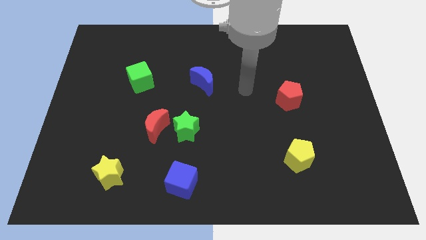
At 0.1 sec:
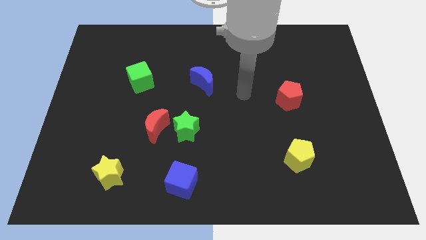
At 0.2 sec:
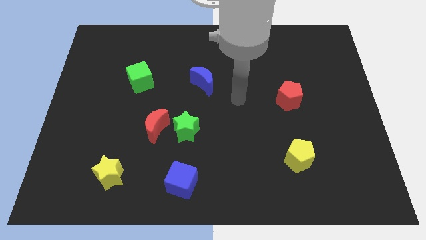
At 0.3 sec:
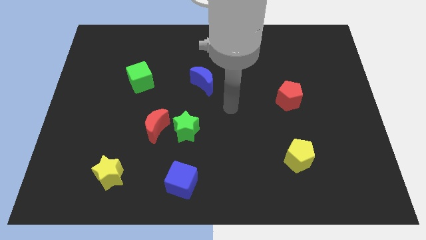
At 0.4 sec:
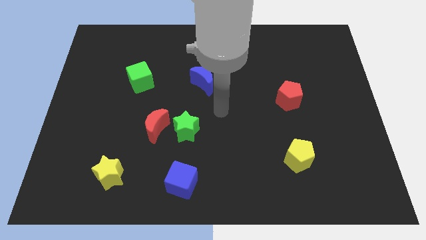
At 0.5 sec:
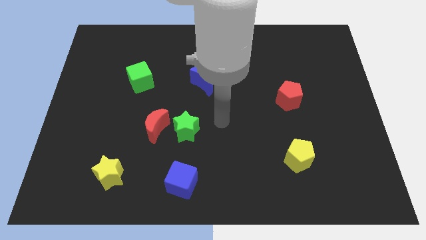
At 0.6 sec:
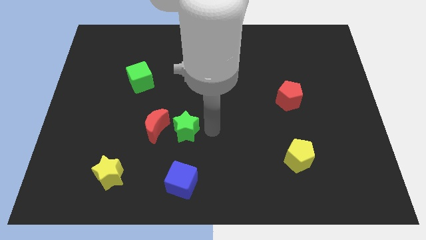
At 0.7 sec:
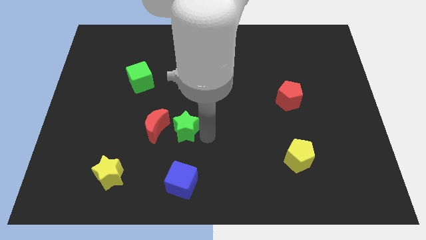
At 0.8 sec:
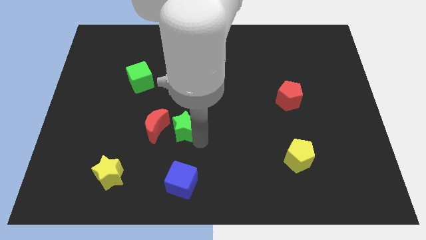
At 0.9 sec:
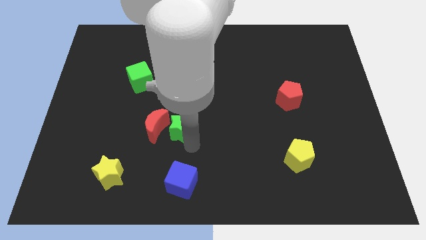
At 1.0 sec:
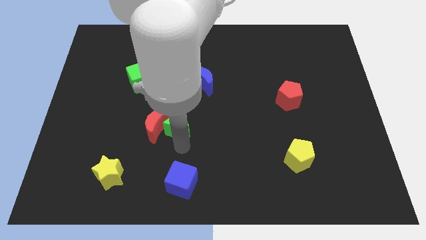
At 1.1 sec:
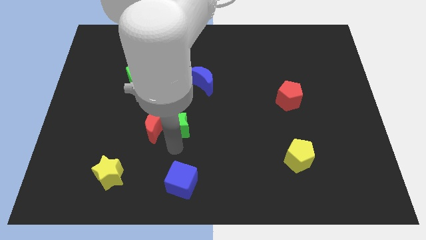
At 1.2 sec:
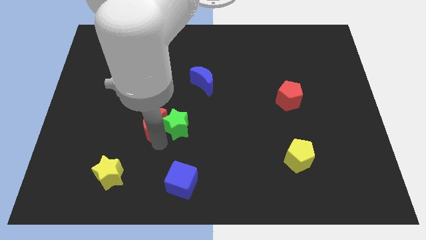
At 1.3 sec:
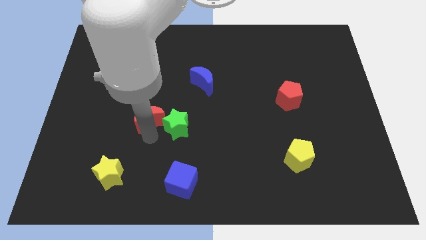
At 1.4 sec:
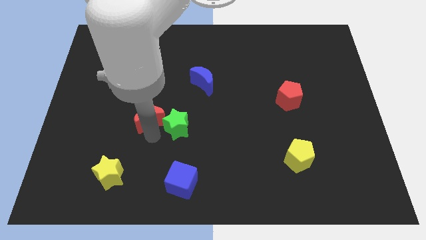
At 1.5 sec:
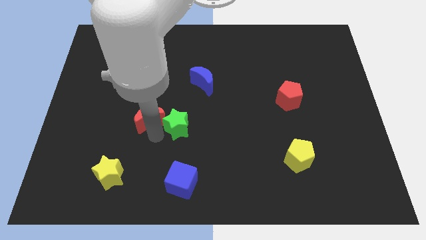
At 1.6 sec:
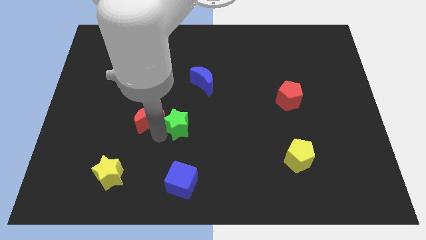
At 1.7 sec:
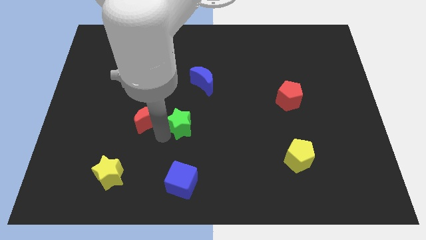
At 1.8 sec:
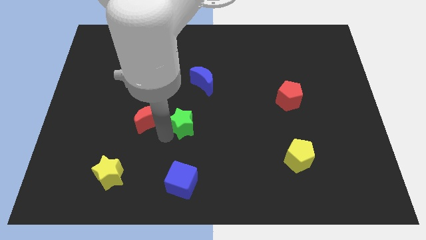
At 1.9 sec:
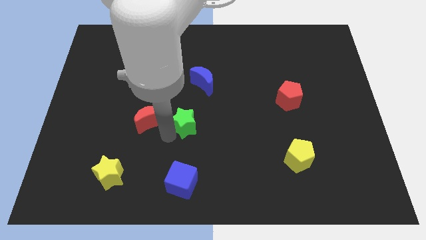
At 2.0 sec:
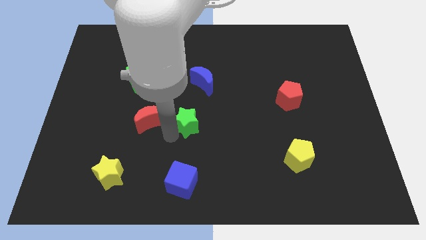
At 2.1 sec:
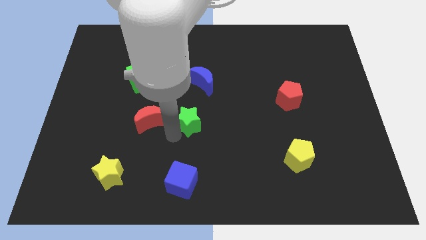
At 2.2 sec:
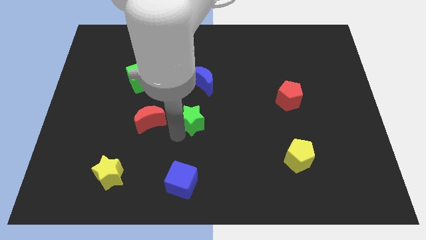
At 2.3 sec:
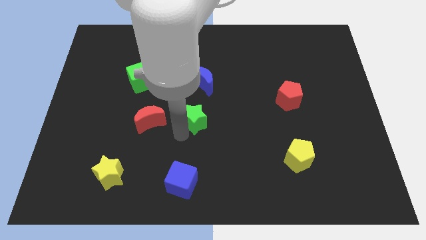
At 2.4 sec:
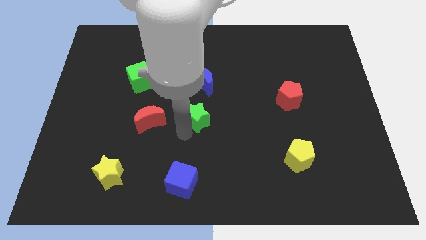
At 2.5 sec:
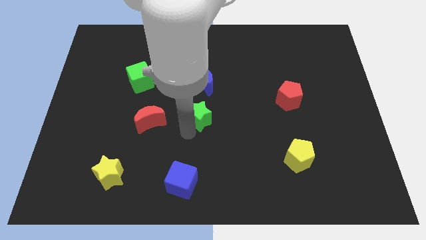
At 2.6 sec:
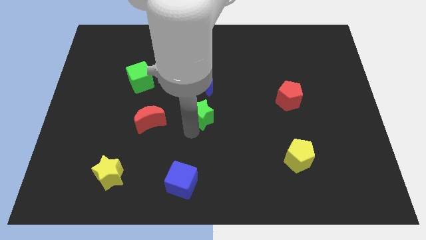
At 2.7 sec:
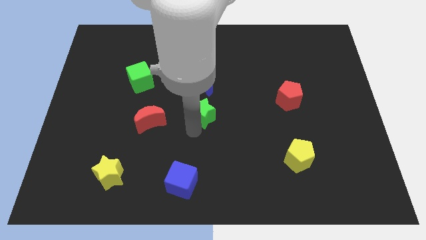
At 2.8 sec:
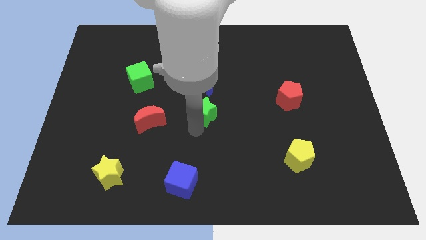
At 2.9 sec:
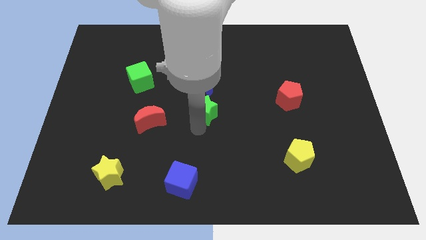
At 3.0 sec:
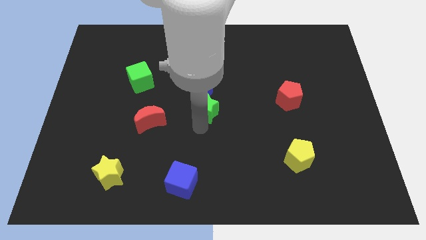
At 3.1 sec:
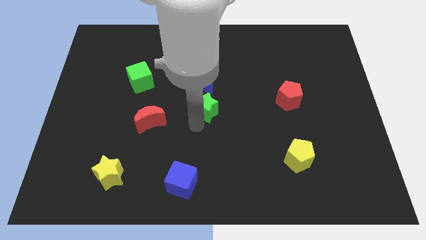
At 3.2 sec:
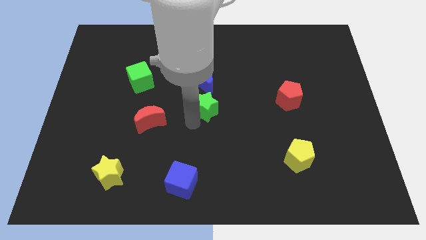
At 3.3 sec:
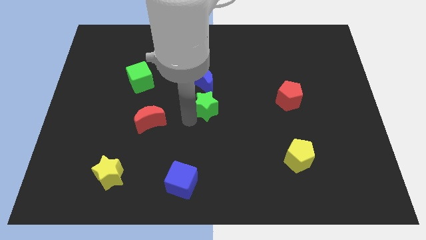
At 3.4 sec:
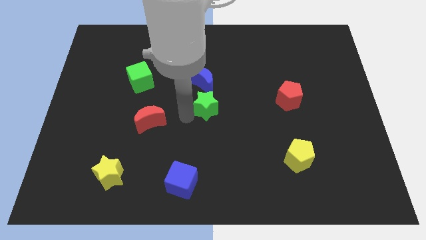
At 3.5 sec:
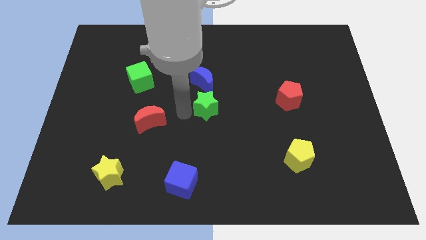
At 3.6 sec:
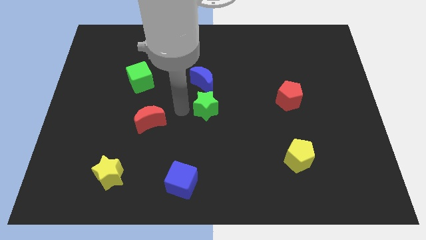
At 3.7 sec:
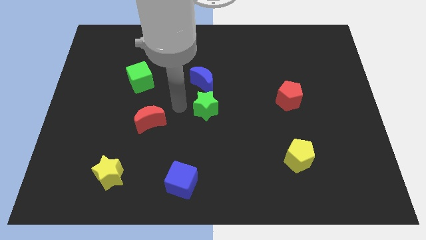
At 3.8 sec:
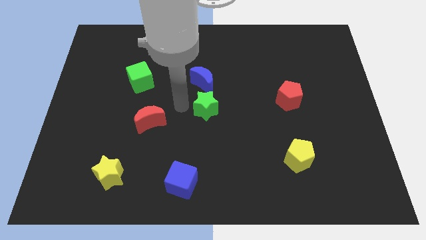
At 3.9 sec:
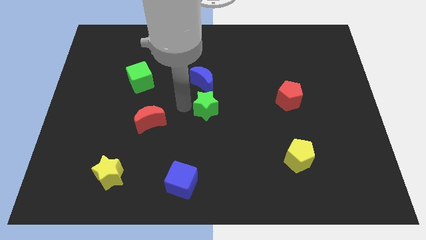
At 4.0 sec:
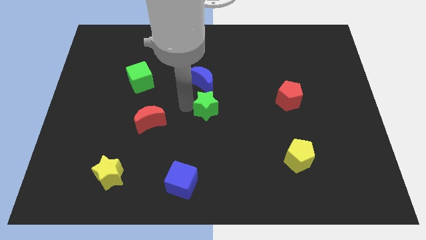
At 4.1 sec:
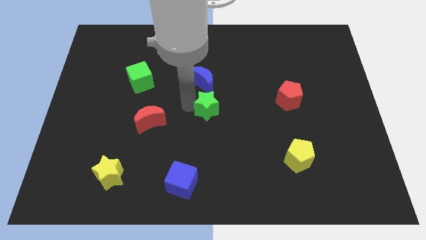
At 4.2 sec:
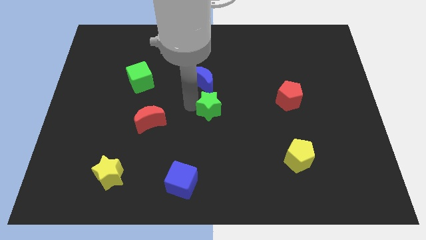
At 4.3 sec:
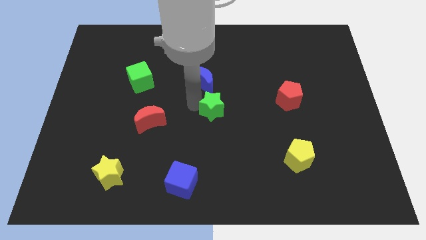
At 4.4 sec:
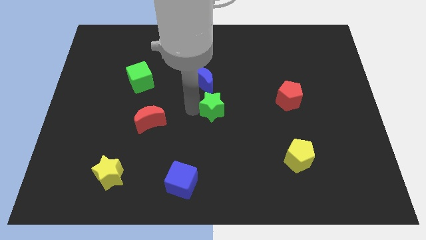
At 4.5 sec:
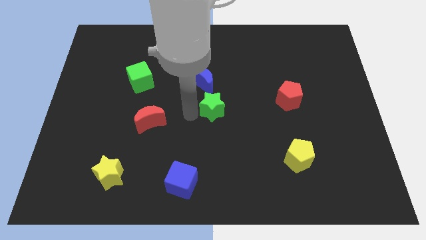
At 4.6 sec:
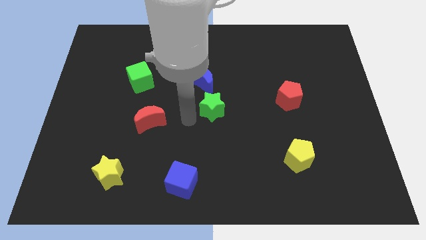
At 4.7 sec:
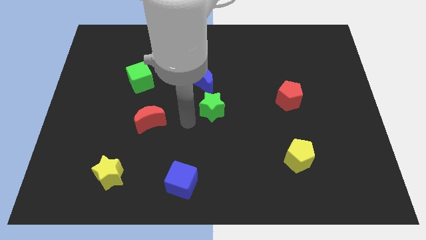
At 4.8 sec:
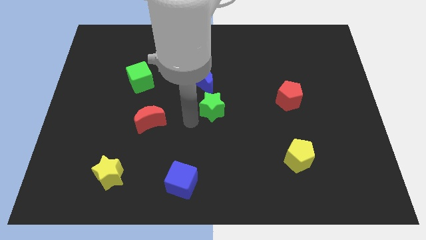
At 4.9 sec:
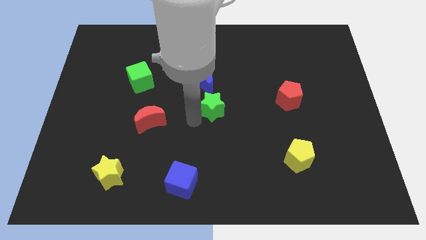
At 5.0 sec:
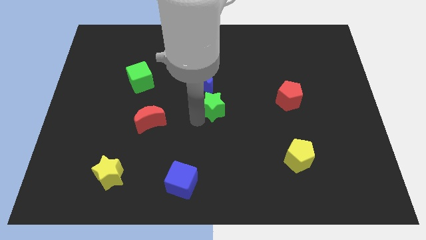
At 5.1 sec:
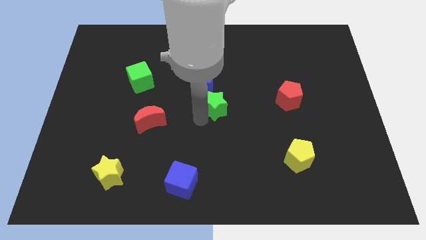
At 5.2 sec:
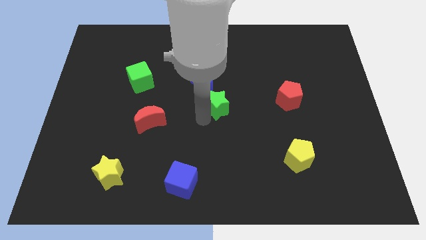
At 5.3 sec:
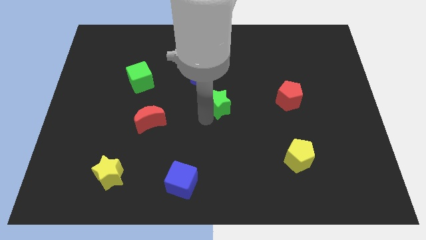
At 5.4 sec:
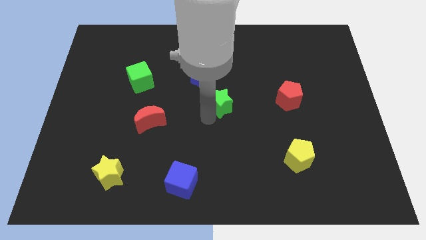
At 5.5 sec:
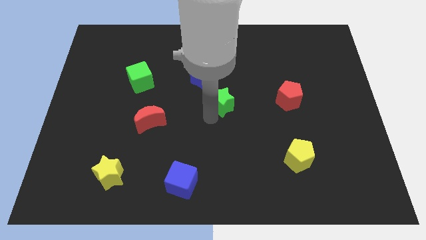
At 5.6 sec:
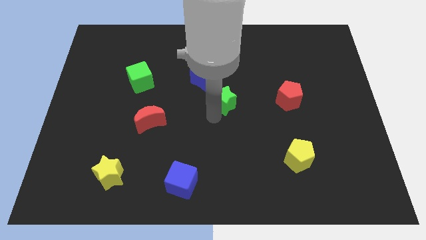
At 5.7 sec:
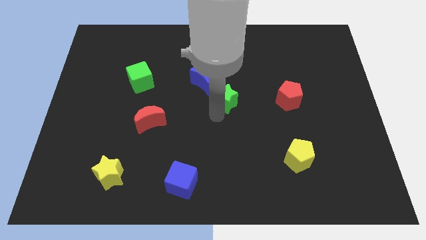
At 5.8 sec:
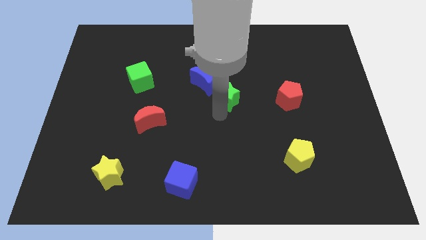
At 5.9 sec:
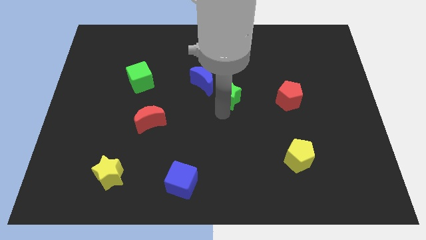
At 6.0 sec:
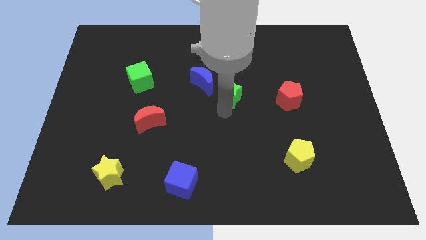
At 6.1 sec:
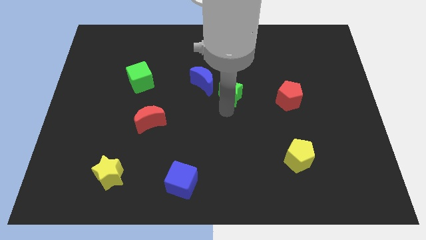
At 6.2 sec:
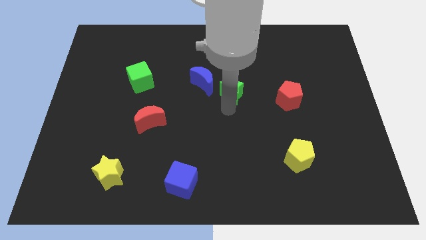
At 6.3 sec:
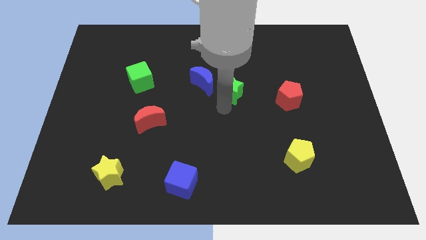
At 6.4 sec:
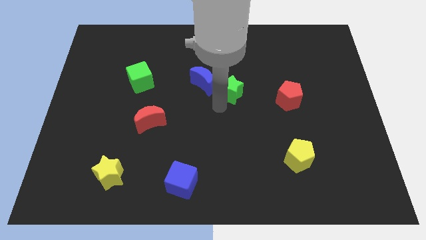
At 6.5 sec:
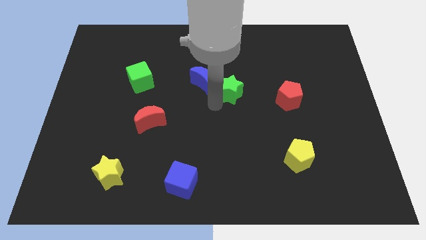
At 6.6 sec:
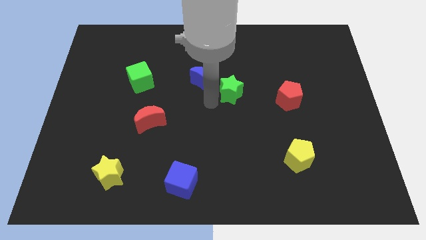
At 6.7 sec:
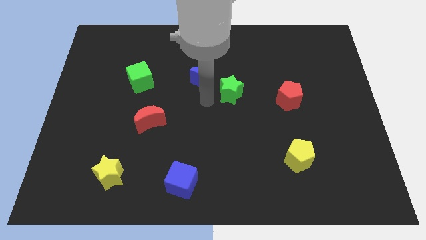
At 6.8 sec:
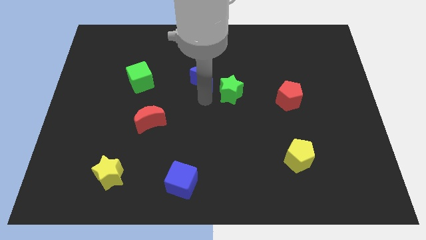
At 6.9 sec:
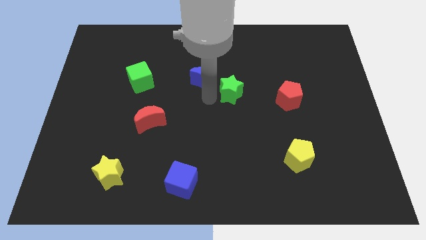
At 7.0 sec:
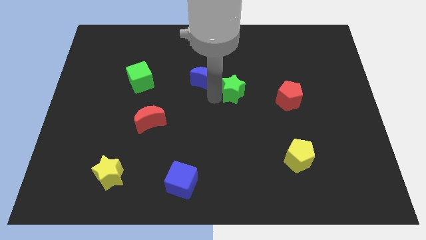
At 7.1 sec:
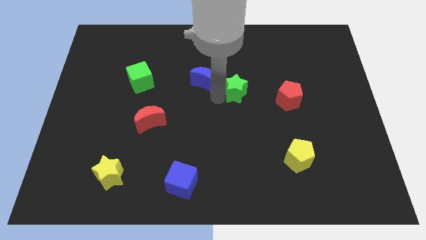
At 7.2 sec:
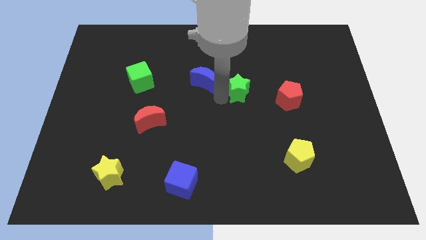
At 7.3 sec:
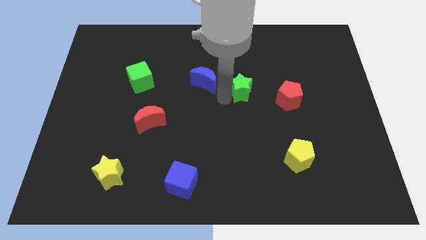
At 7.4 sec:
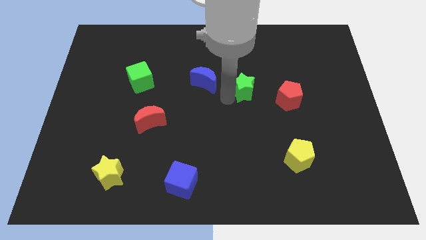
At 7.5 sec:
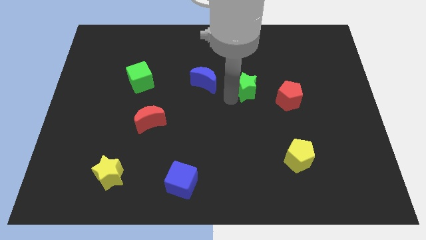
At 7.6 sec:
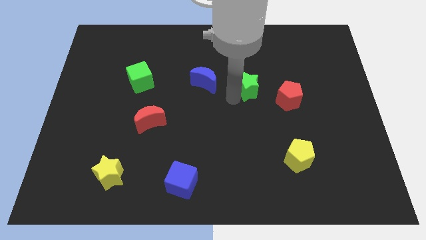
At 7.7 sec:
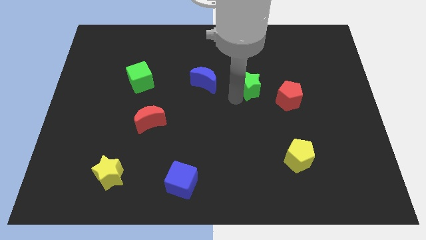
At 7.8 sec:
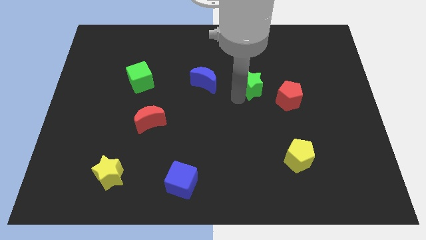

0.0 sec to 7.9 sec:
slide the green star diagonally upwards and right

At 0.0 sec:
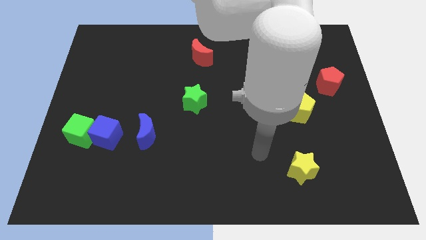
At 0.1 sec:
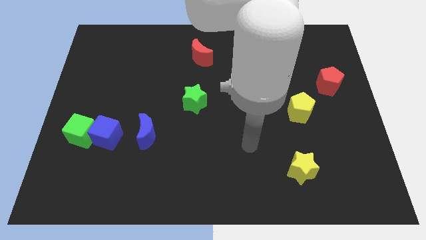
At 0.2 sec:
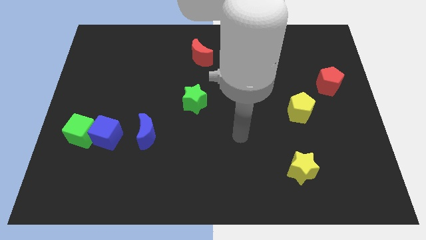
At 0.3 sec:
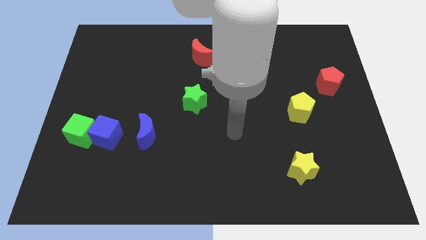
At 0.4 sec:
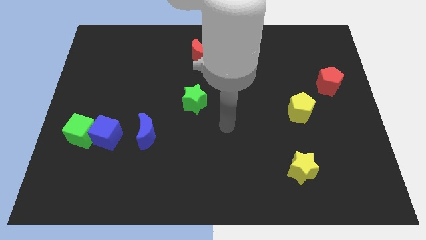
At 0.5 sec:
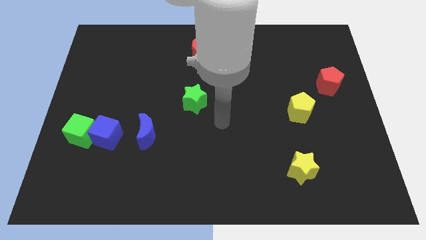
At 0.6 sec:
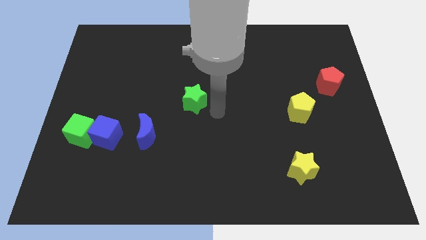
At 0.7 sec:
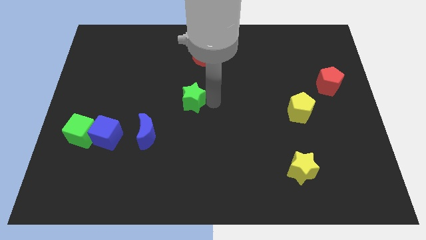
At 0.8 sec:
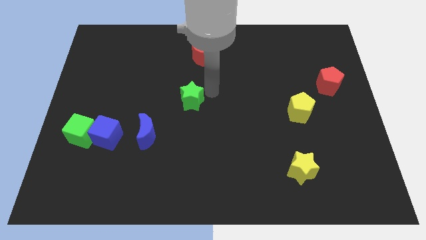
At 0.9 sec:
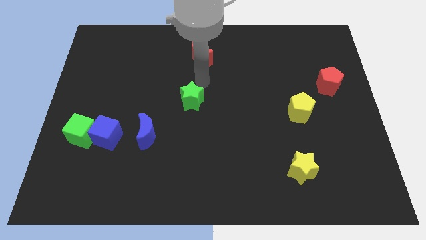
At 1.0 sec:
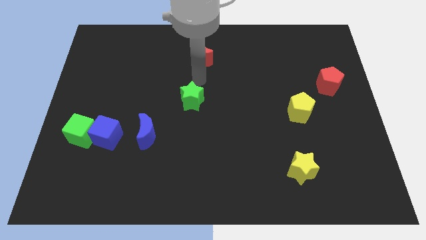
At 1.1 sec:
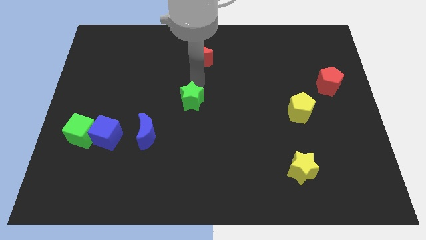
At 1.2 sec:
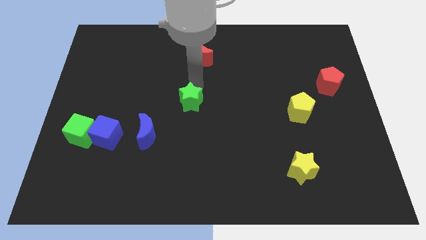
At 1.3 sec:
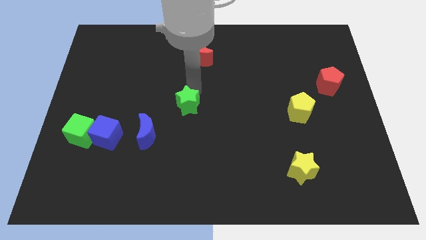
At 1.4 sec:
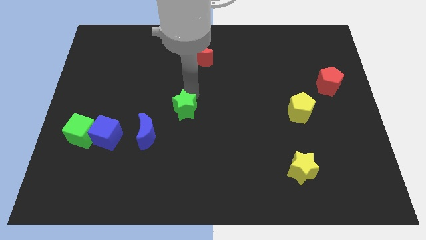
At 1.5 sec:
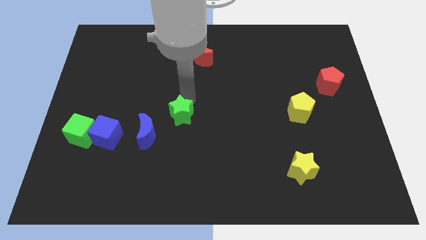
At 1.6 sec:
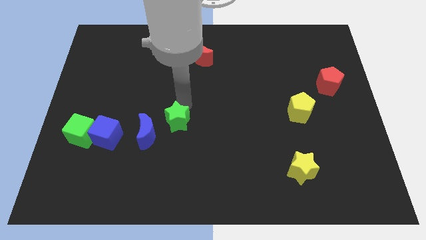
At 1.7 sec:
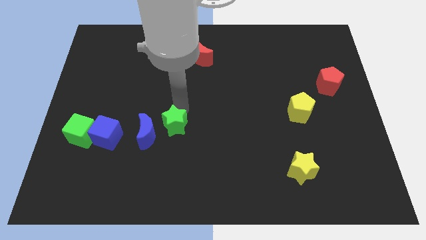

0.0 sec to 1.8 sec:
slightly move the green star downwards and then left
